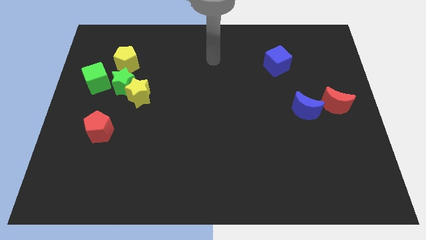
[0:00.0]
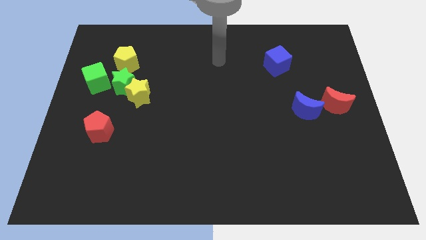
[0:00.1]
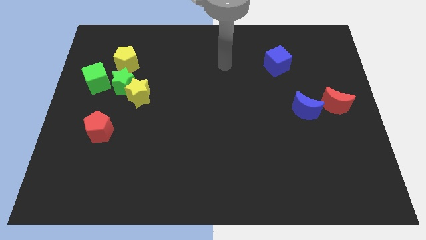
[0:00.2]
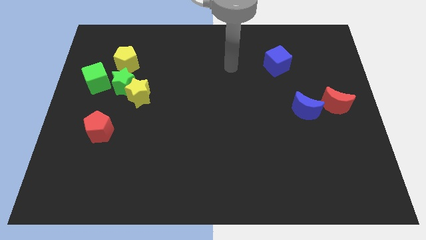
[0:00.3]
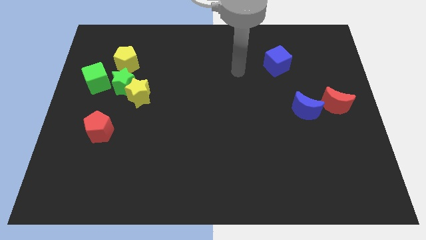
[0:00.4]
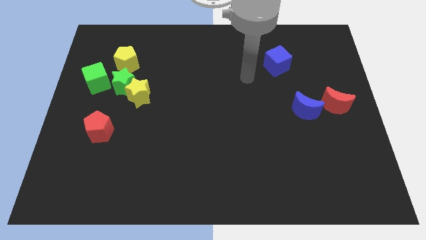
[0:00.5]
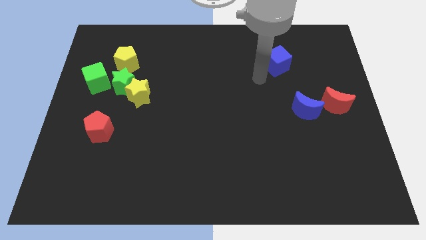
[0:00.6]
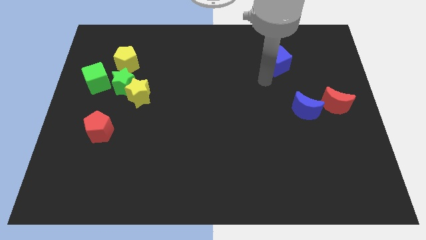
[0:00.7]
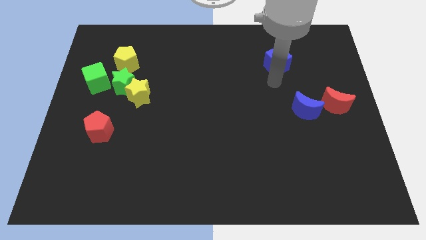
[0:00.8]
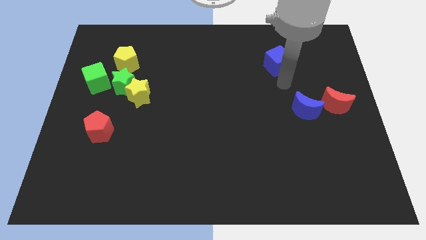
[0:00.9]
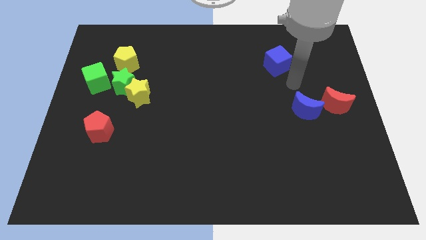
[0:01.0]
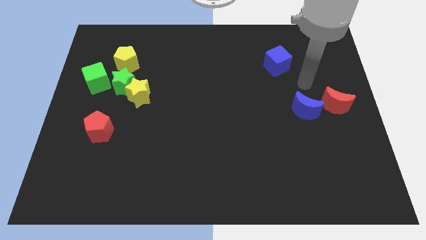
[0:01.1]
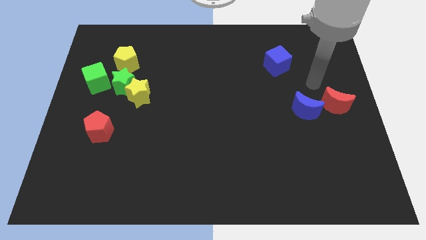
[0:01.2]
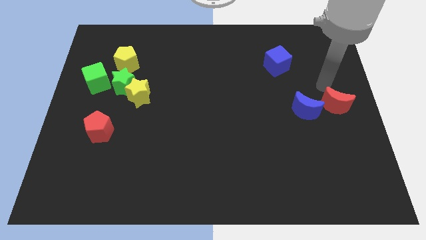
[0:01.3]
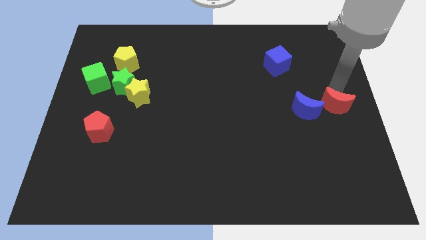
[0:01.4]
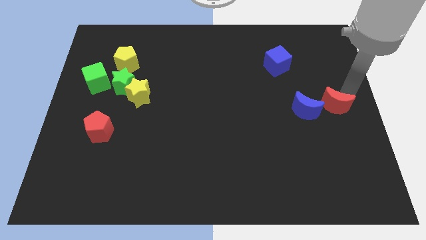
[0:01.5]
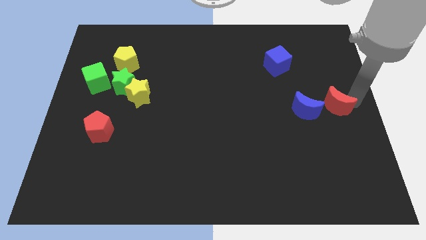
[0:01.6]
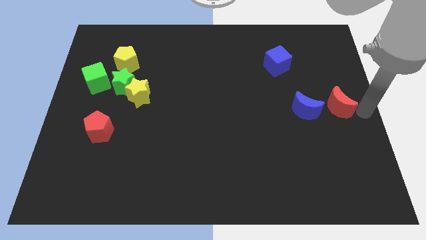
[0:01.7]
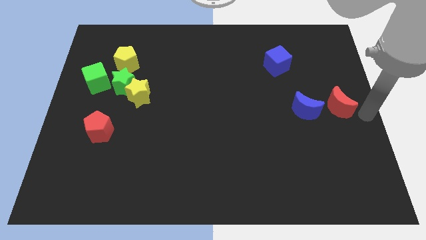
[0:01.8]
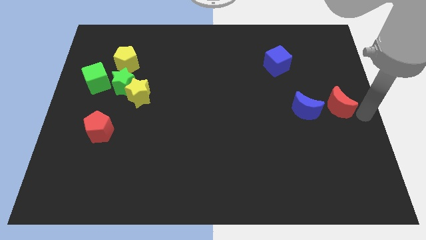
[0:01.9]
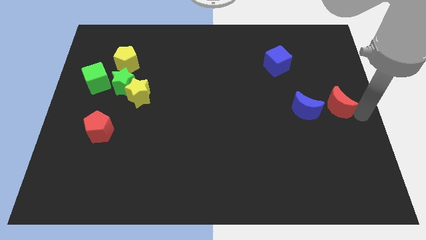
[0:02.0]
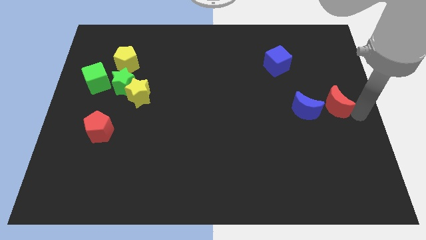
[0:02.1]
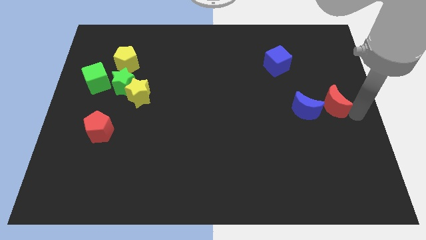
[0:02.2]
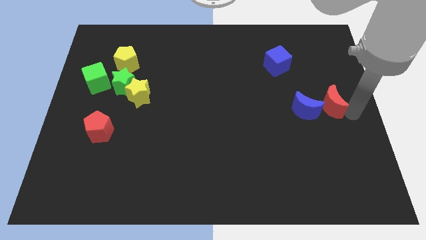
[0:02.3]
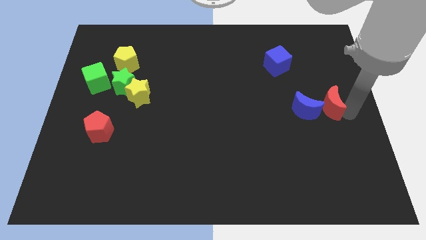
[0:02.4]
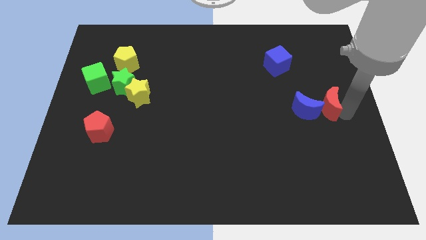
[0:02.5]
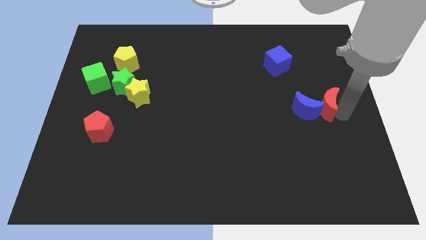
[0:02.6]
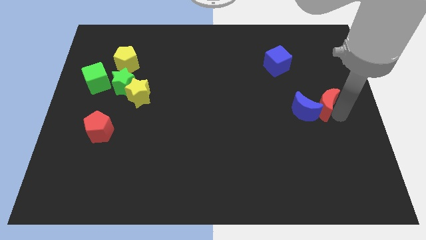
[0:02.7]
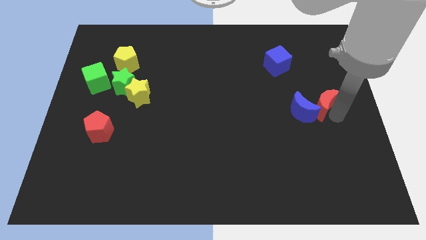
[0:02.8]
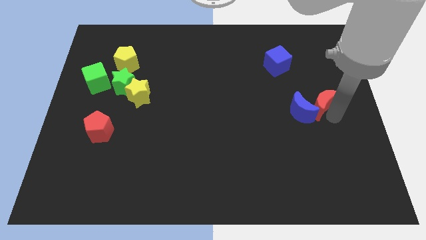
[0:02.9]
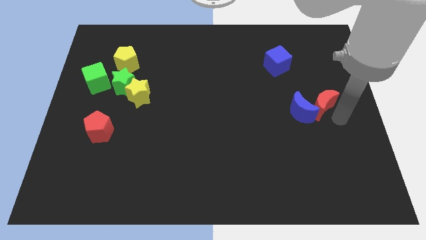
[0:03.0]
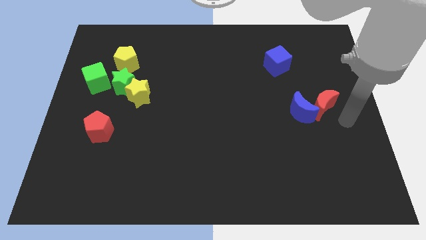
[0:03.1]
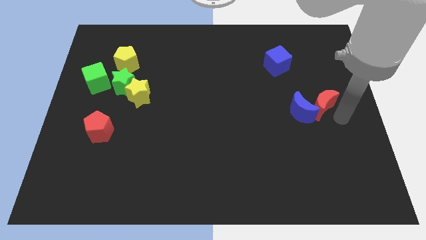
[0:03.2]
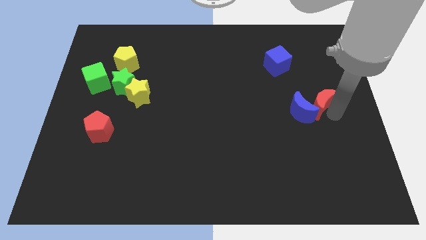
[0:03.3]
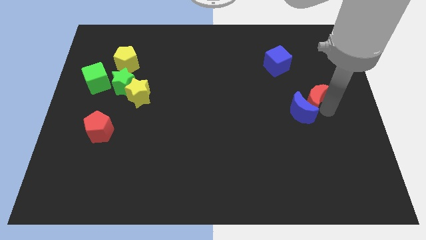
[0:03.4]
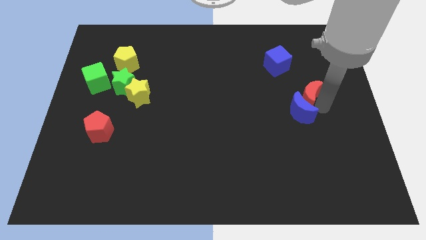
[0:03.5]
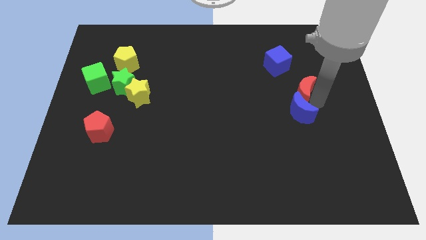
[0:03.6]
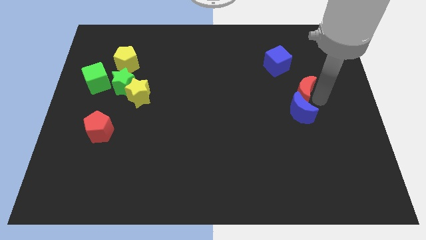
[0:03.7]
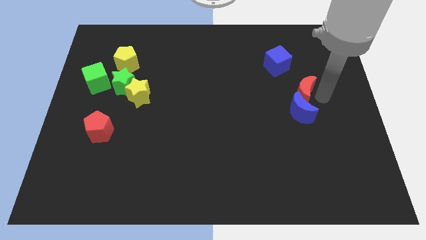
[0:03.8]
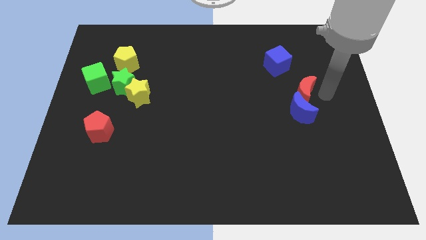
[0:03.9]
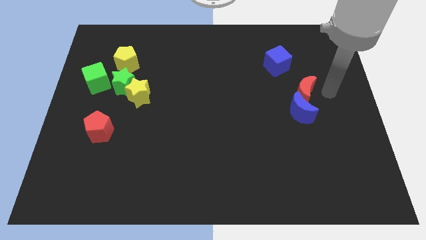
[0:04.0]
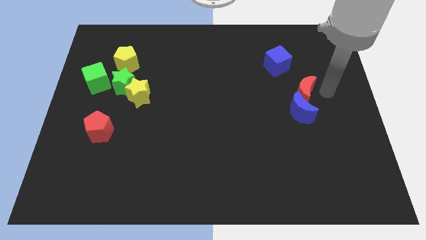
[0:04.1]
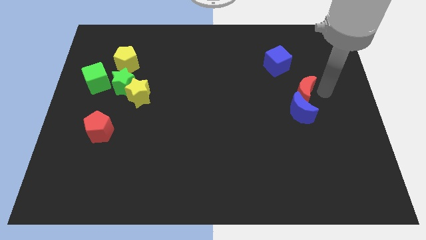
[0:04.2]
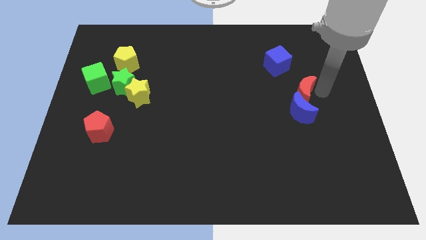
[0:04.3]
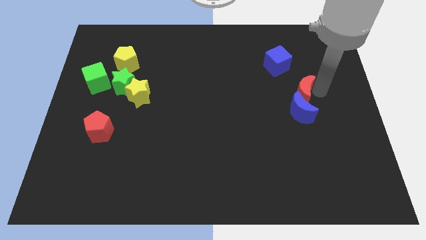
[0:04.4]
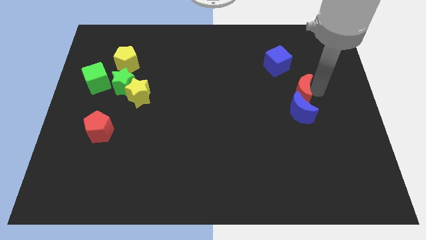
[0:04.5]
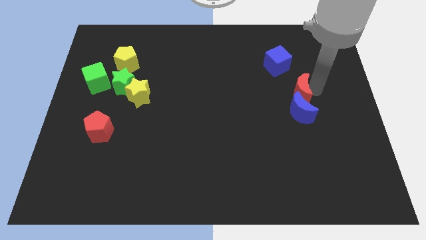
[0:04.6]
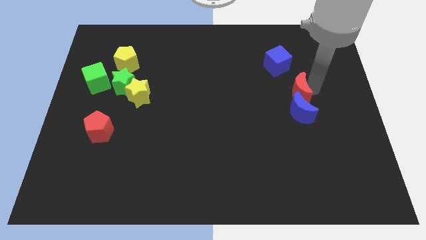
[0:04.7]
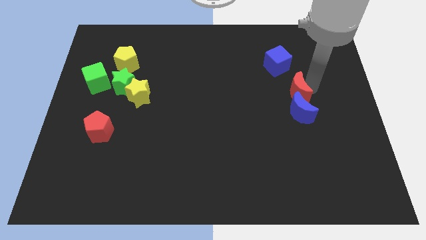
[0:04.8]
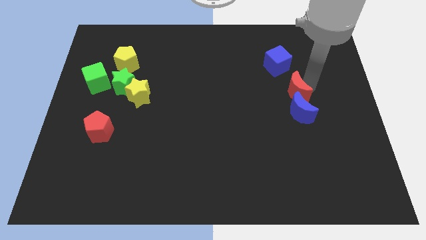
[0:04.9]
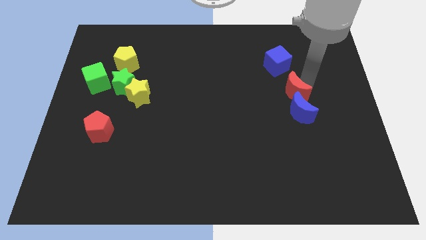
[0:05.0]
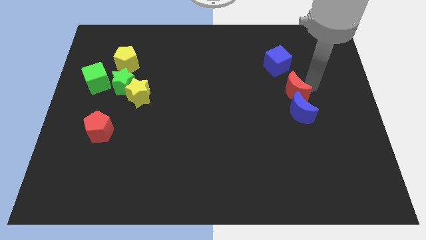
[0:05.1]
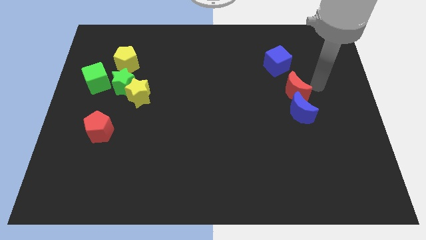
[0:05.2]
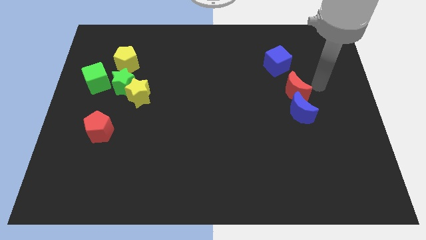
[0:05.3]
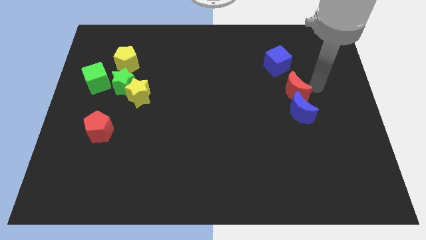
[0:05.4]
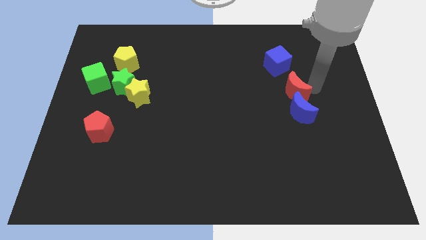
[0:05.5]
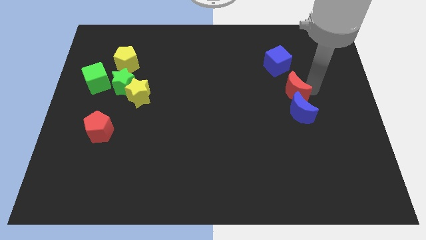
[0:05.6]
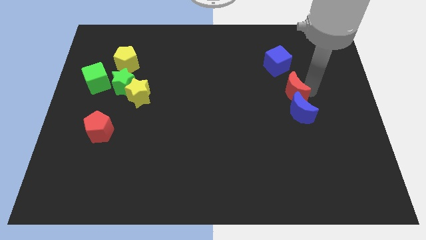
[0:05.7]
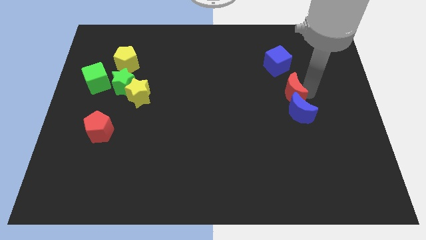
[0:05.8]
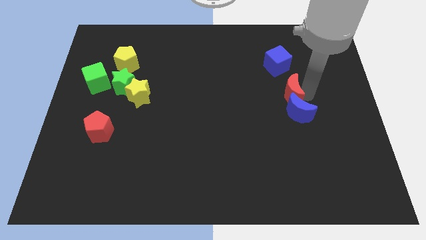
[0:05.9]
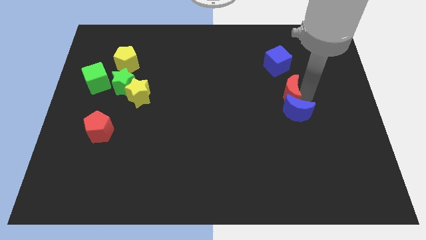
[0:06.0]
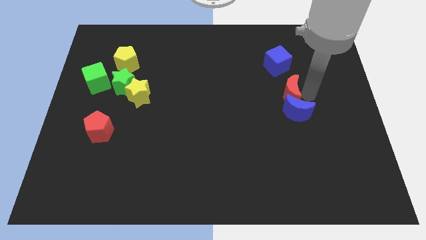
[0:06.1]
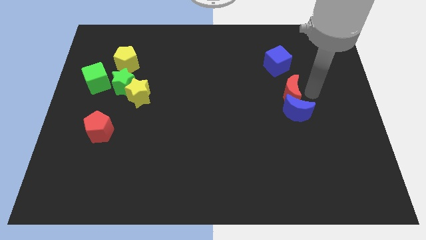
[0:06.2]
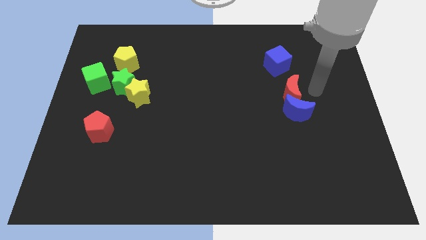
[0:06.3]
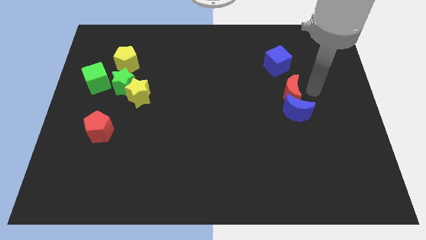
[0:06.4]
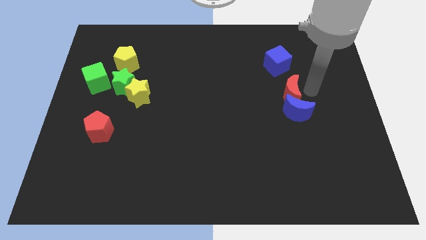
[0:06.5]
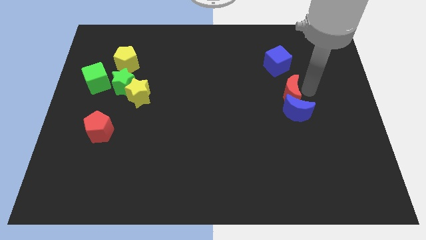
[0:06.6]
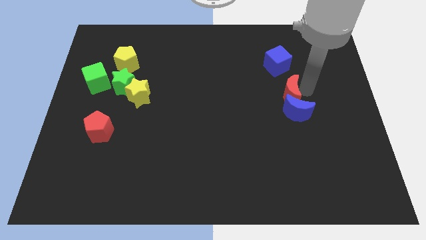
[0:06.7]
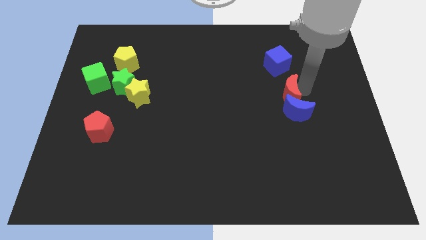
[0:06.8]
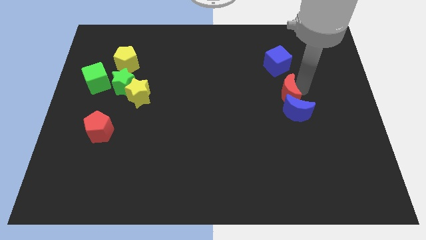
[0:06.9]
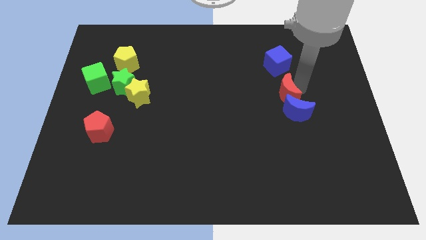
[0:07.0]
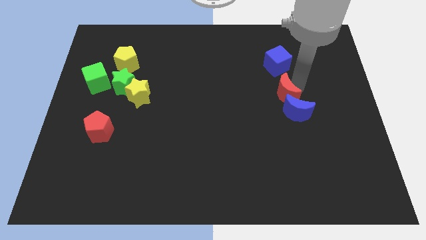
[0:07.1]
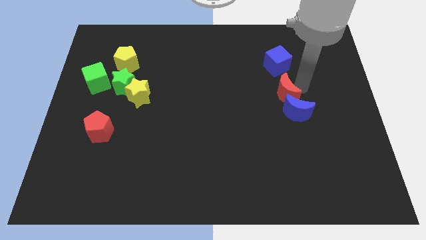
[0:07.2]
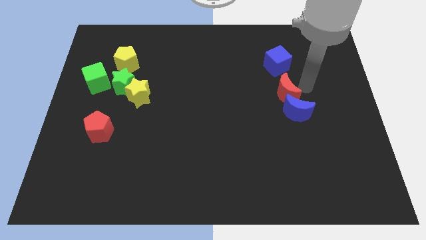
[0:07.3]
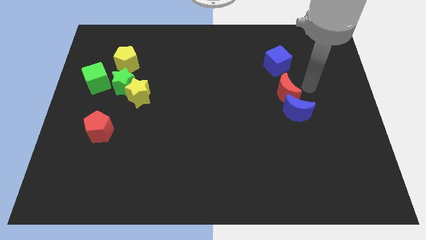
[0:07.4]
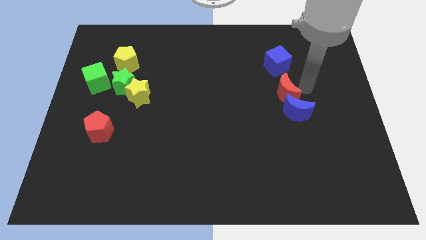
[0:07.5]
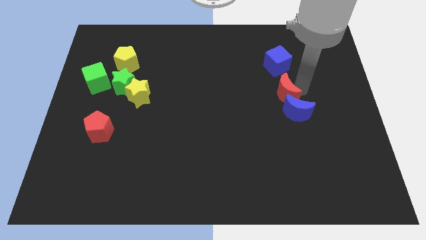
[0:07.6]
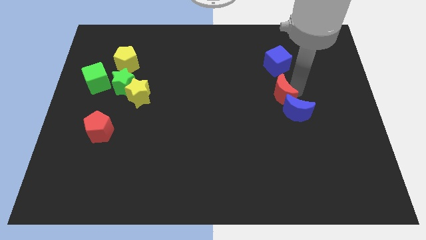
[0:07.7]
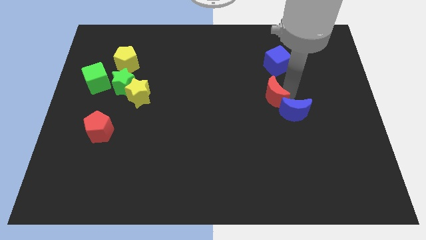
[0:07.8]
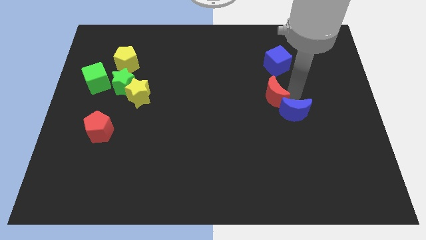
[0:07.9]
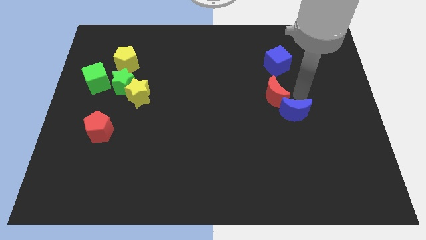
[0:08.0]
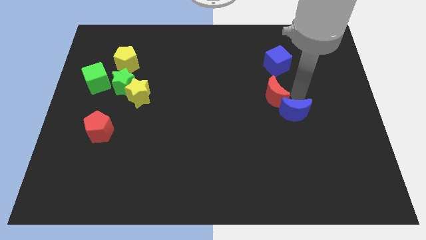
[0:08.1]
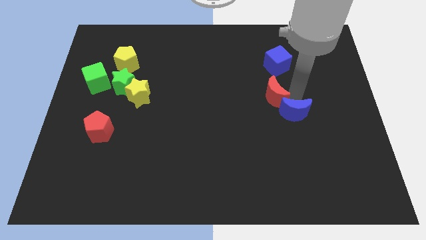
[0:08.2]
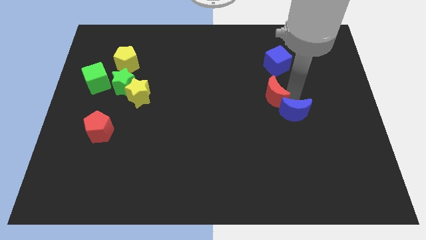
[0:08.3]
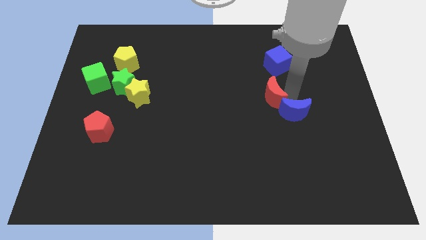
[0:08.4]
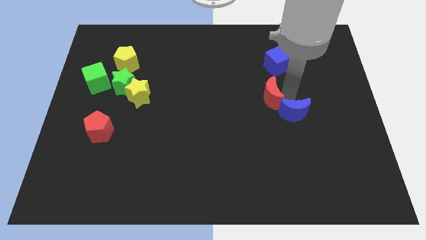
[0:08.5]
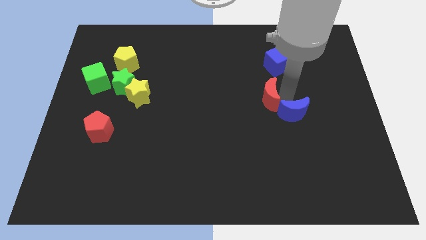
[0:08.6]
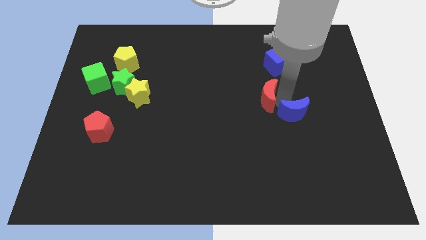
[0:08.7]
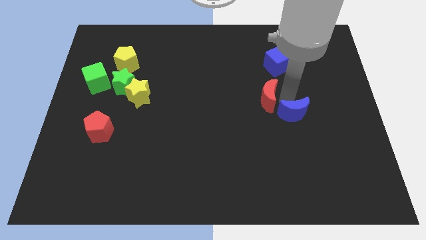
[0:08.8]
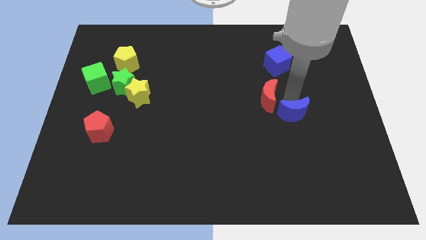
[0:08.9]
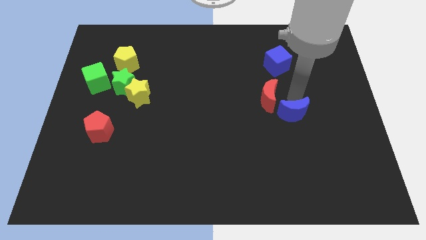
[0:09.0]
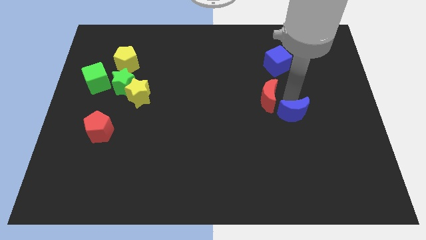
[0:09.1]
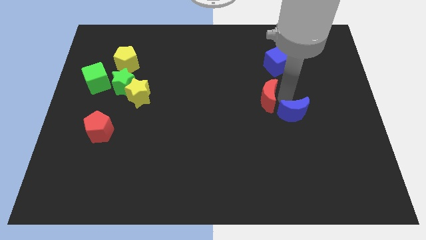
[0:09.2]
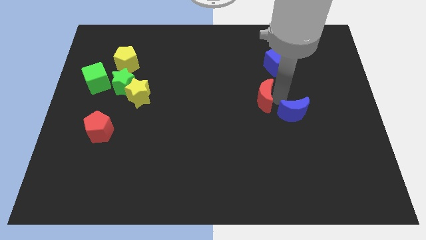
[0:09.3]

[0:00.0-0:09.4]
push the red moon to the middle of the board
